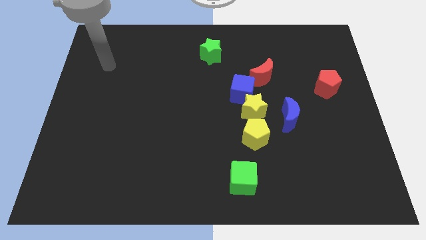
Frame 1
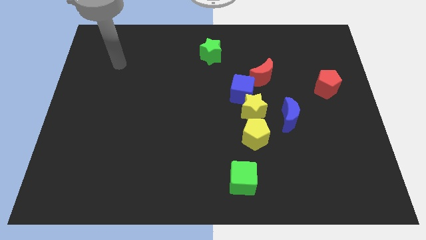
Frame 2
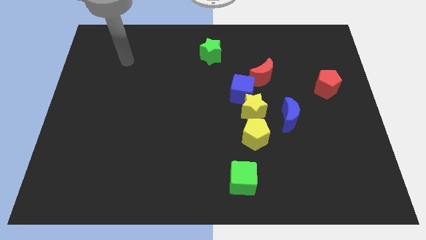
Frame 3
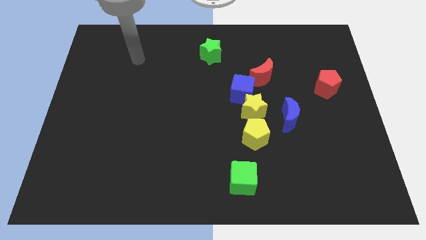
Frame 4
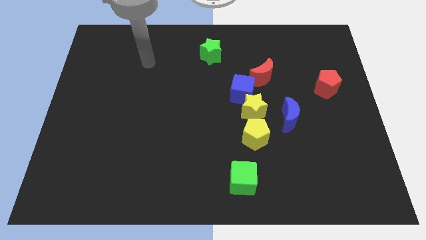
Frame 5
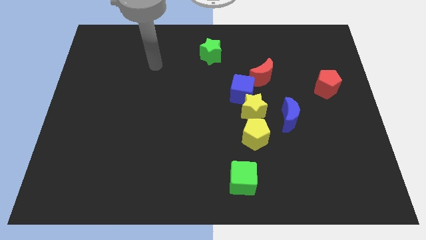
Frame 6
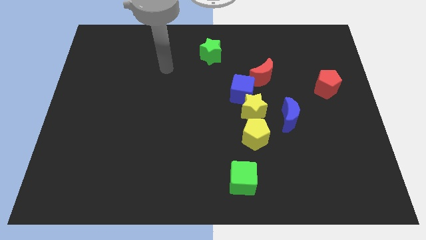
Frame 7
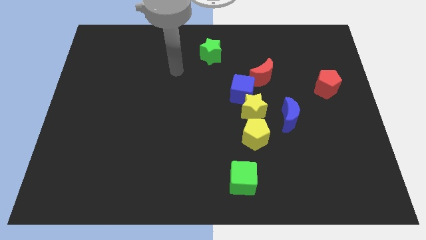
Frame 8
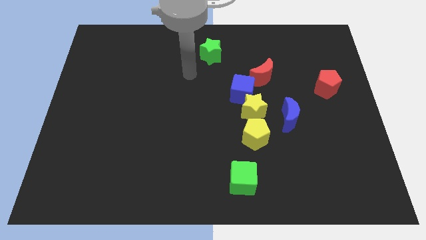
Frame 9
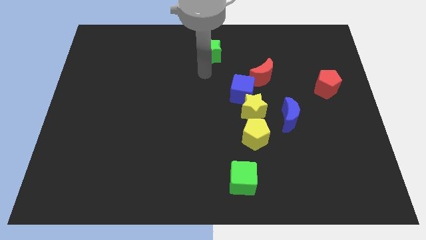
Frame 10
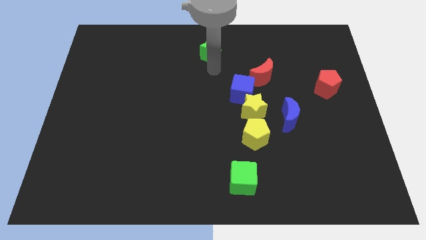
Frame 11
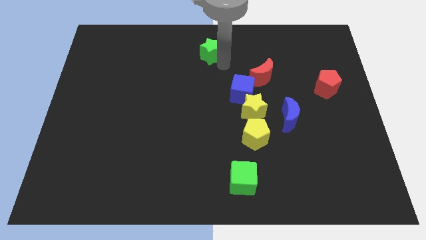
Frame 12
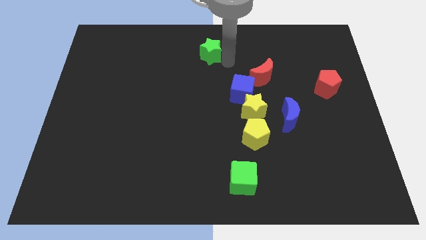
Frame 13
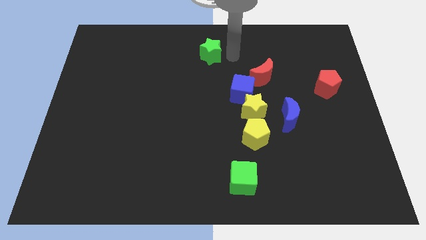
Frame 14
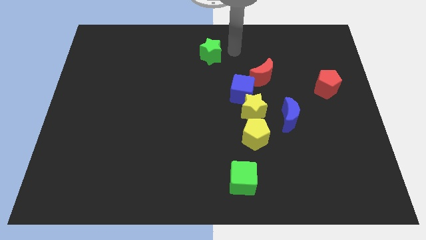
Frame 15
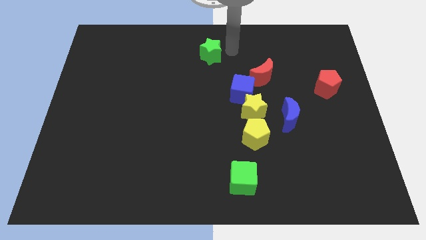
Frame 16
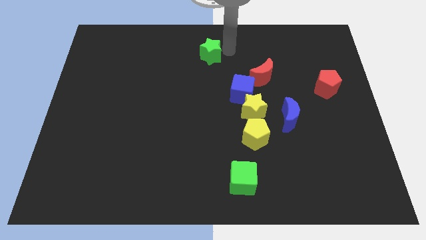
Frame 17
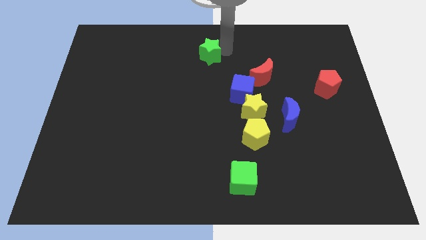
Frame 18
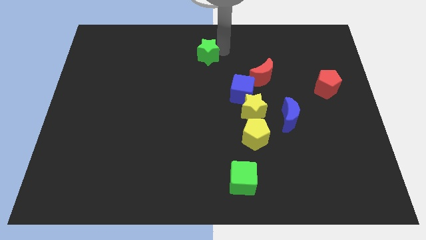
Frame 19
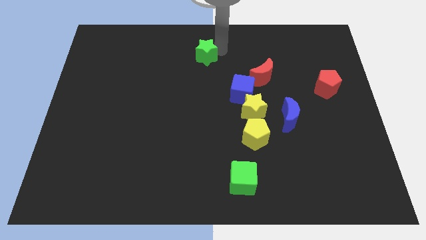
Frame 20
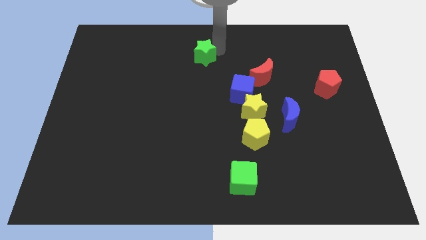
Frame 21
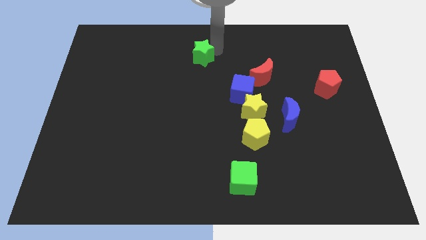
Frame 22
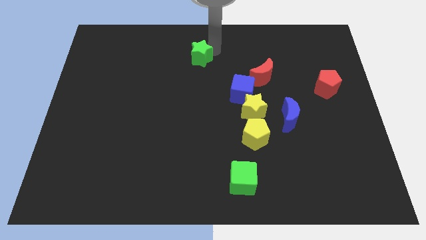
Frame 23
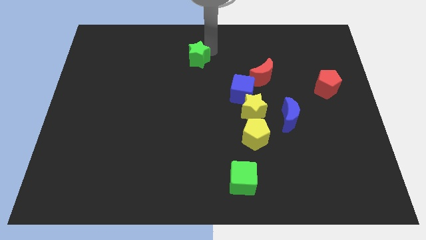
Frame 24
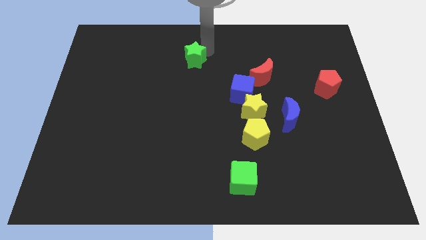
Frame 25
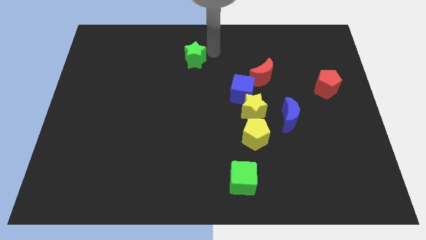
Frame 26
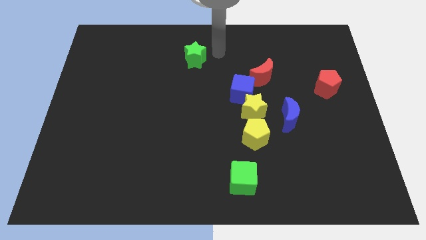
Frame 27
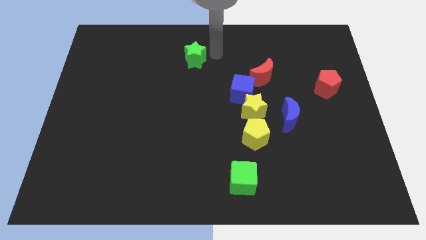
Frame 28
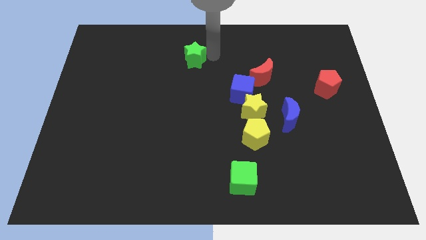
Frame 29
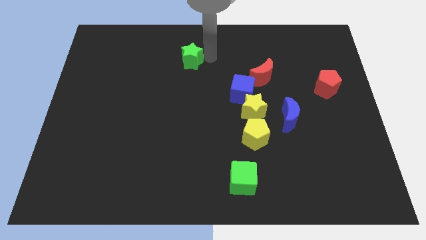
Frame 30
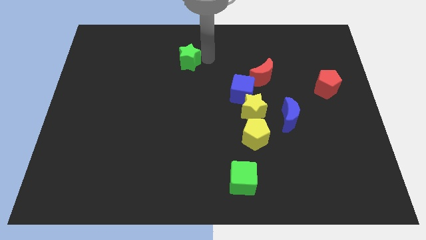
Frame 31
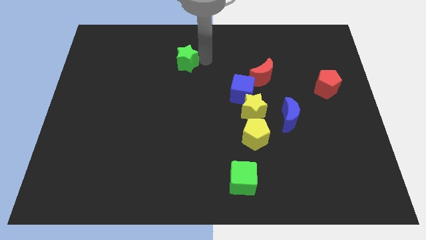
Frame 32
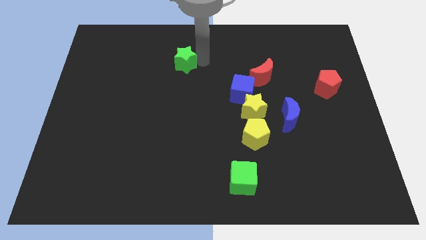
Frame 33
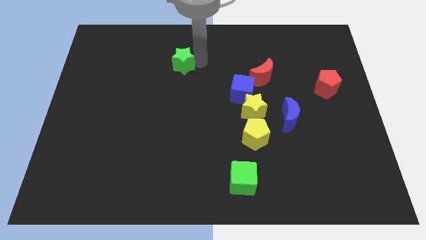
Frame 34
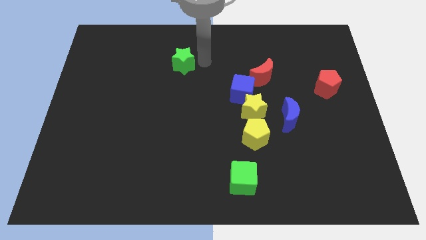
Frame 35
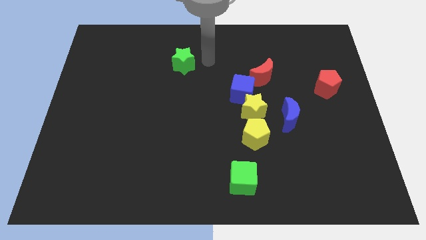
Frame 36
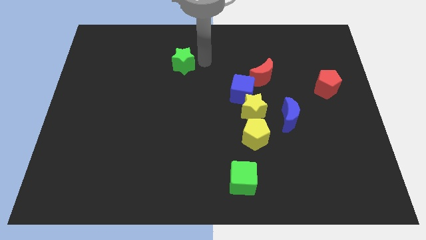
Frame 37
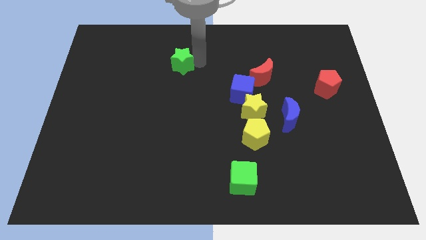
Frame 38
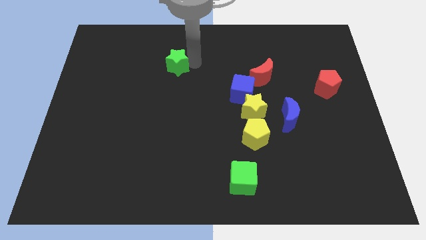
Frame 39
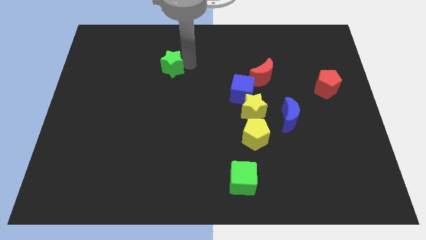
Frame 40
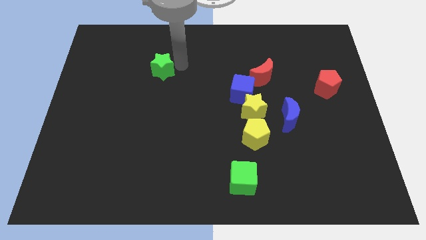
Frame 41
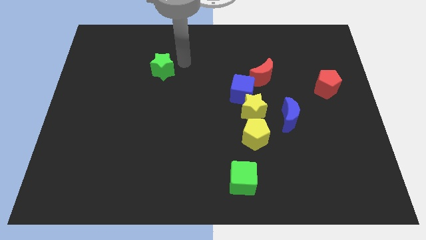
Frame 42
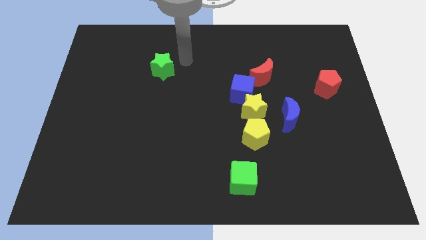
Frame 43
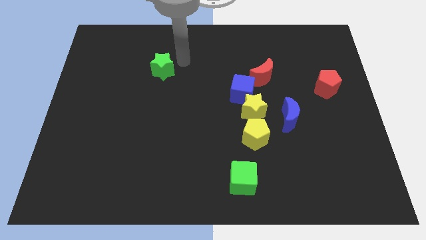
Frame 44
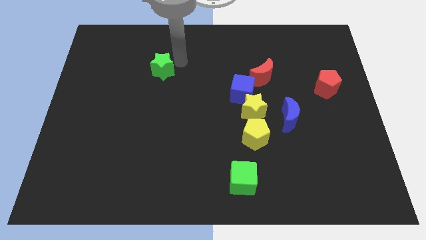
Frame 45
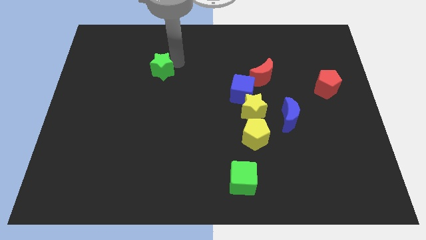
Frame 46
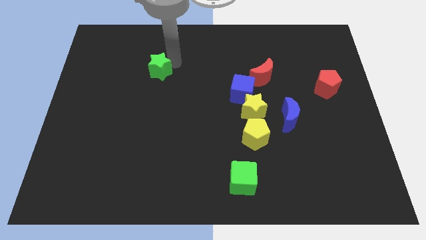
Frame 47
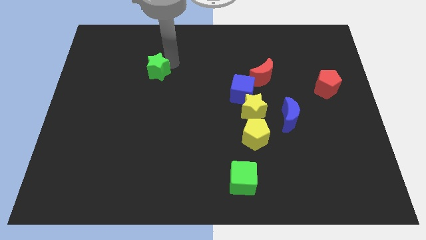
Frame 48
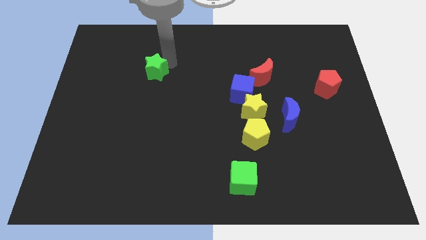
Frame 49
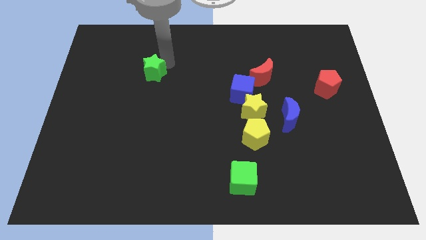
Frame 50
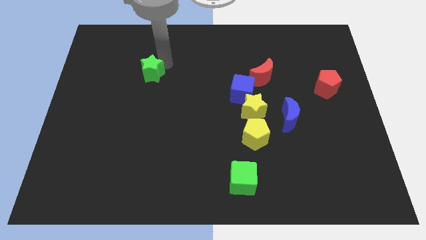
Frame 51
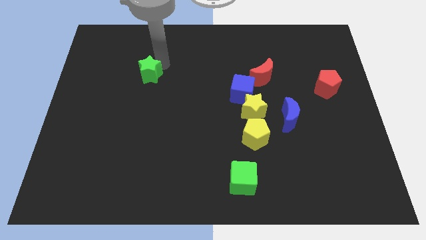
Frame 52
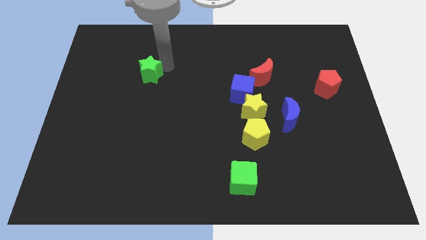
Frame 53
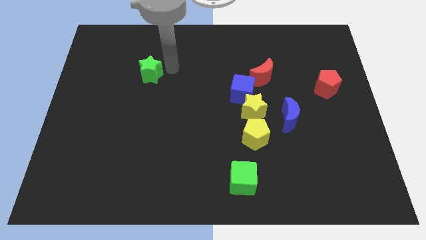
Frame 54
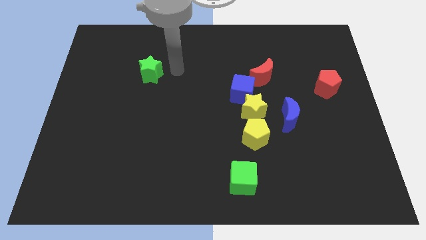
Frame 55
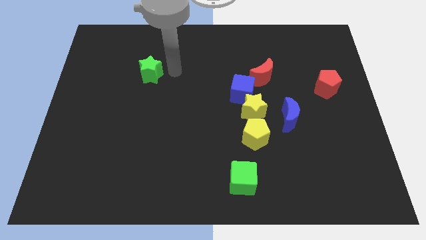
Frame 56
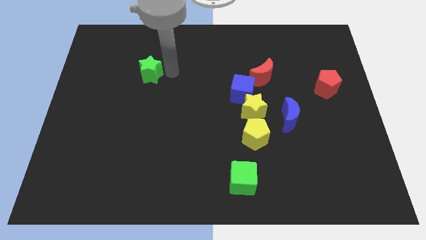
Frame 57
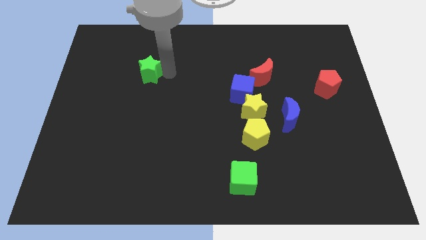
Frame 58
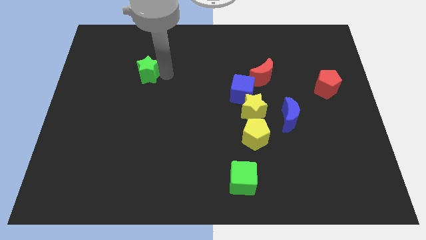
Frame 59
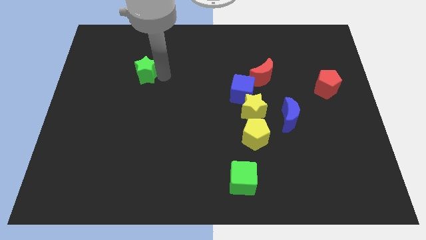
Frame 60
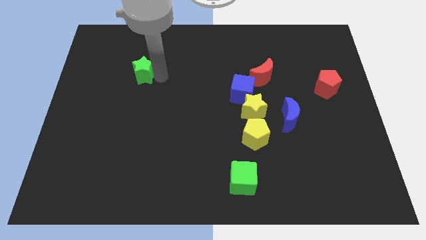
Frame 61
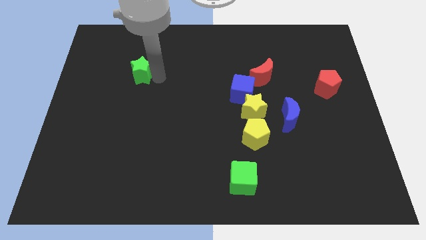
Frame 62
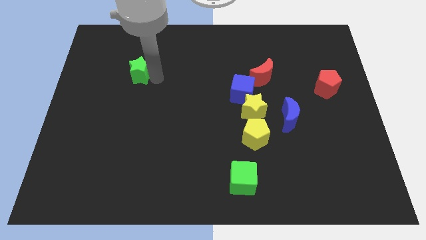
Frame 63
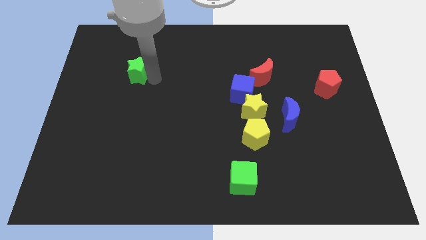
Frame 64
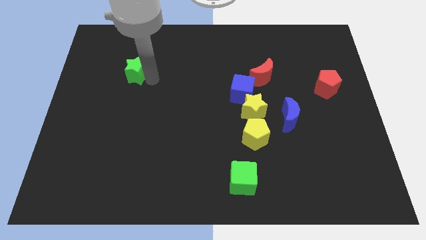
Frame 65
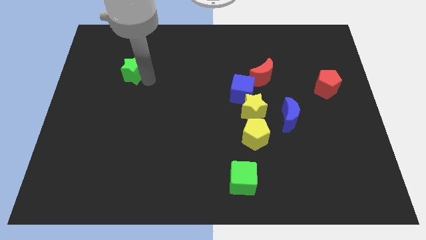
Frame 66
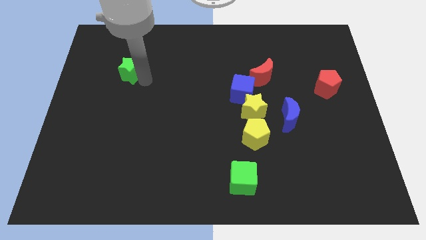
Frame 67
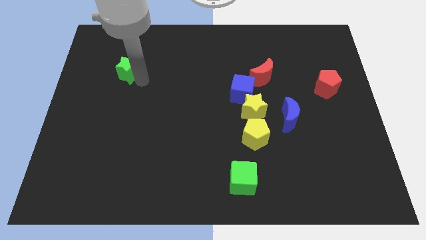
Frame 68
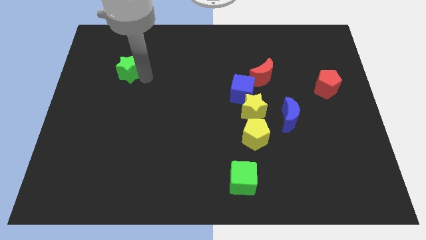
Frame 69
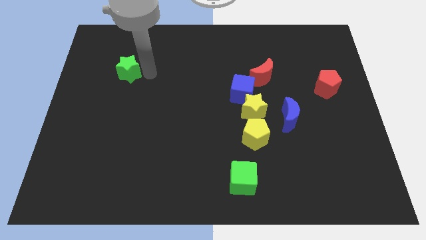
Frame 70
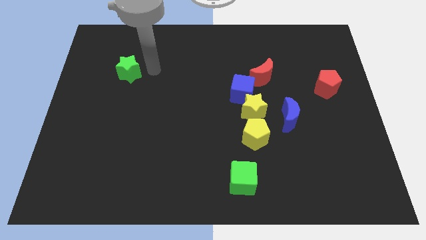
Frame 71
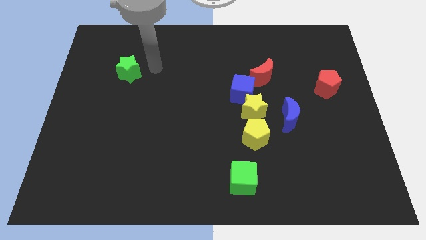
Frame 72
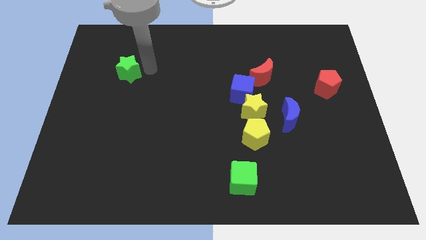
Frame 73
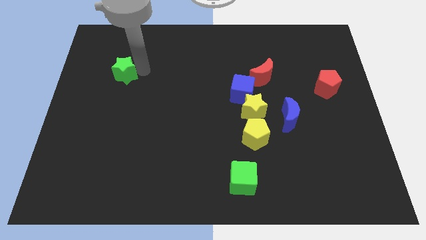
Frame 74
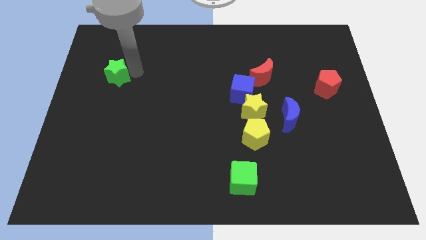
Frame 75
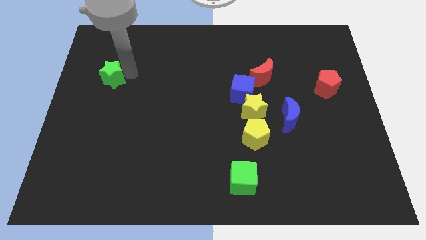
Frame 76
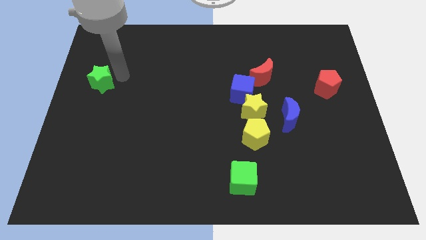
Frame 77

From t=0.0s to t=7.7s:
push the green star to the left side
